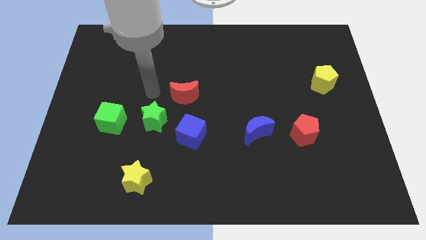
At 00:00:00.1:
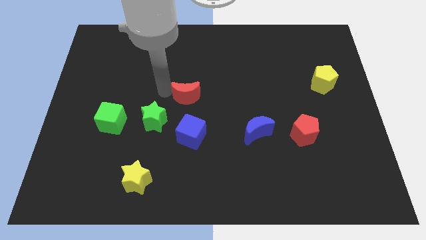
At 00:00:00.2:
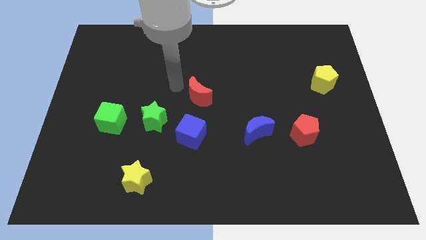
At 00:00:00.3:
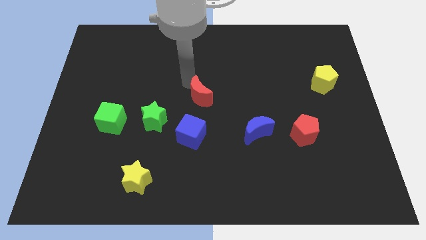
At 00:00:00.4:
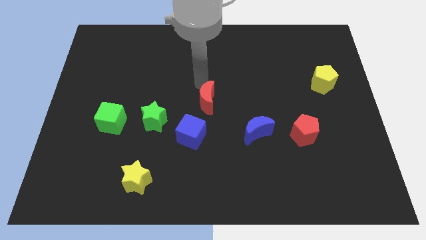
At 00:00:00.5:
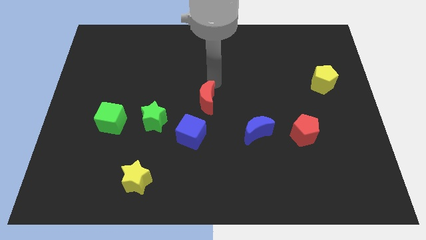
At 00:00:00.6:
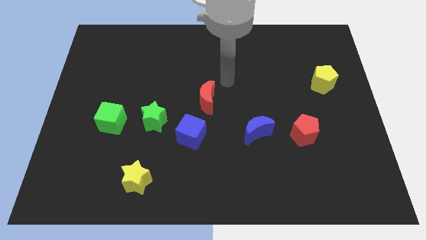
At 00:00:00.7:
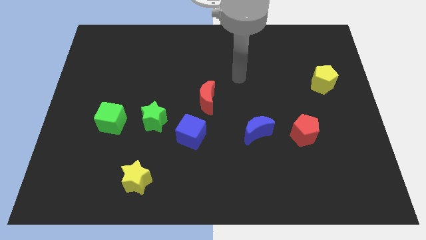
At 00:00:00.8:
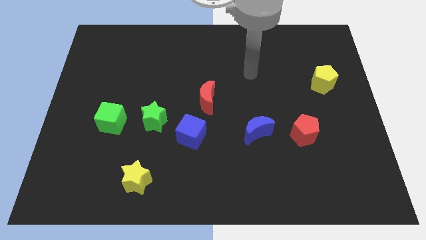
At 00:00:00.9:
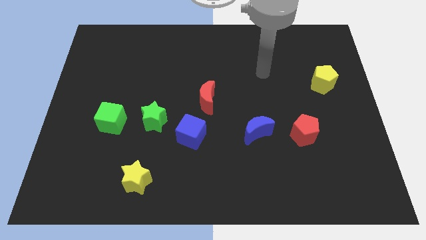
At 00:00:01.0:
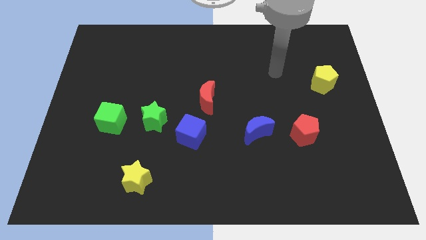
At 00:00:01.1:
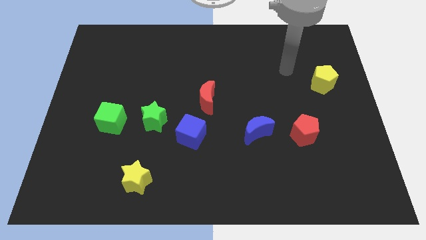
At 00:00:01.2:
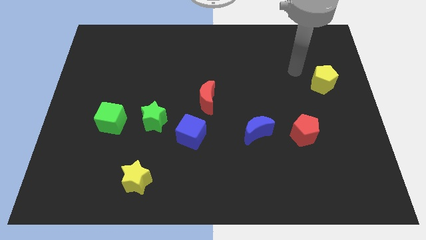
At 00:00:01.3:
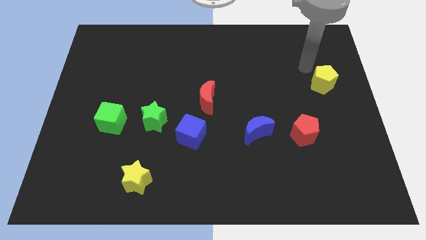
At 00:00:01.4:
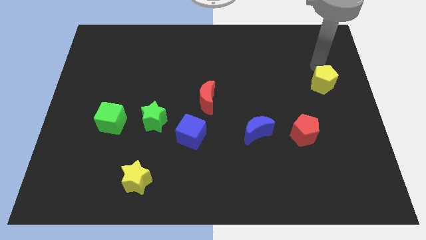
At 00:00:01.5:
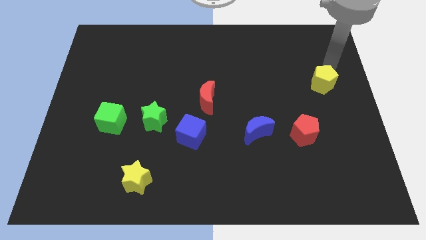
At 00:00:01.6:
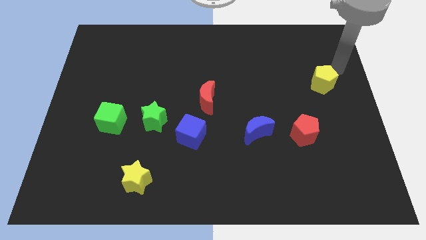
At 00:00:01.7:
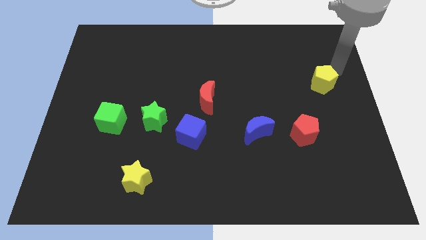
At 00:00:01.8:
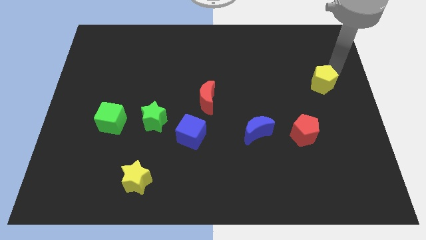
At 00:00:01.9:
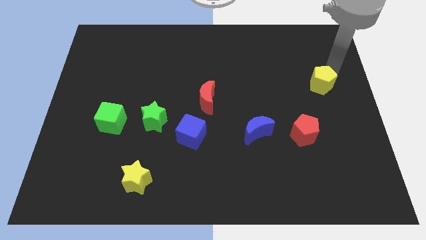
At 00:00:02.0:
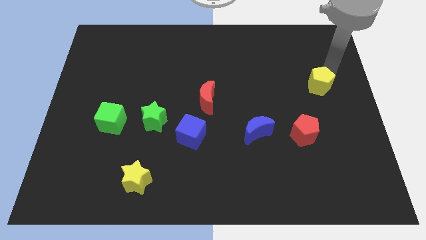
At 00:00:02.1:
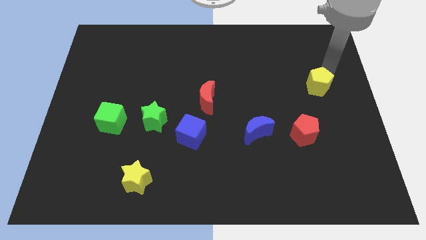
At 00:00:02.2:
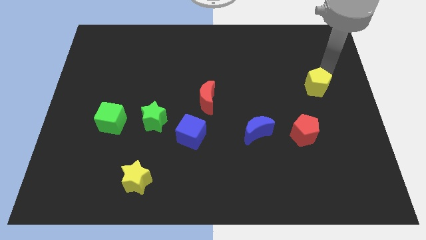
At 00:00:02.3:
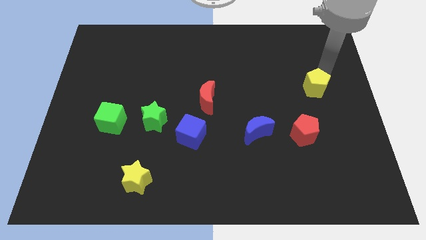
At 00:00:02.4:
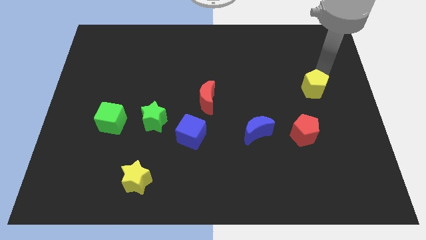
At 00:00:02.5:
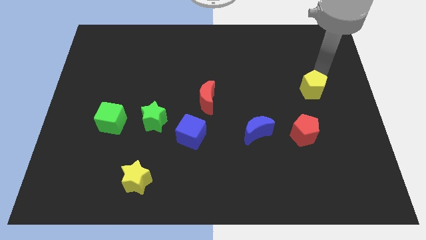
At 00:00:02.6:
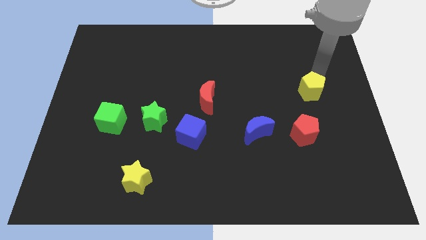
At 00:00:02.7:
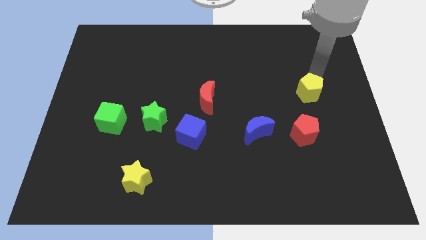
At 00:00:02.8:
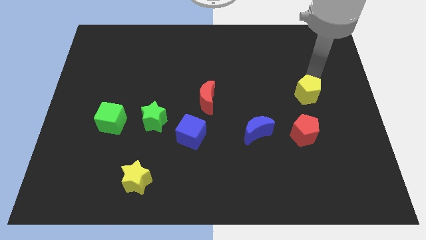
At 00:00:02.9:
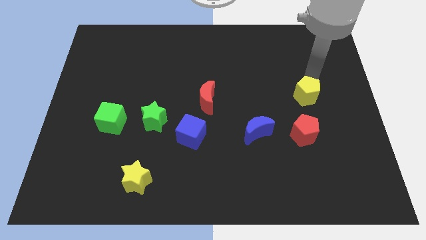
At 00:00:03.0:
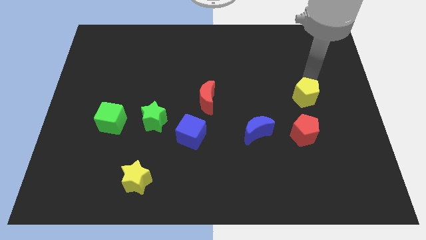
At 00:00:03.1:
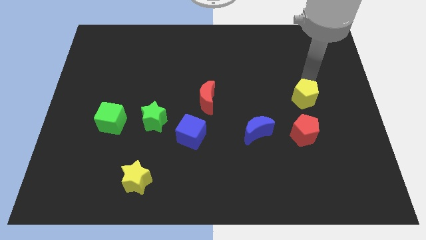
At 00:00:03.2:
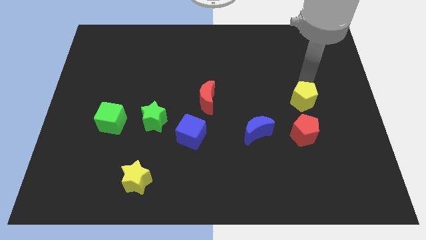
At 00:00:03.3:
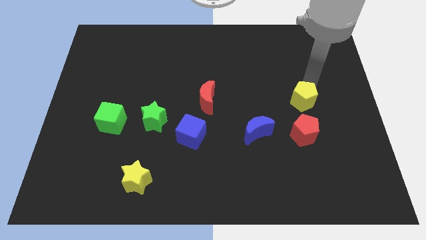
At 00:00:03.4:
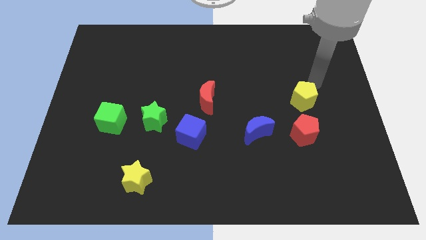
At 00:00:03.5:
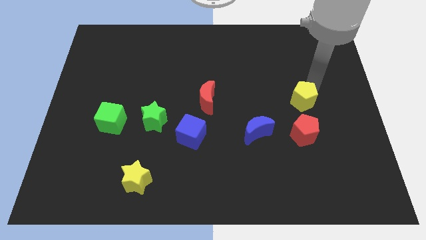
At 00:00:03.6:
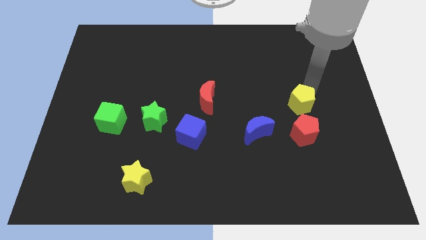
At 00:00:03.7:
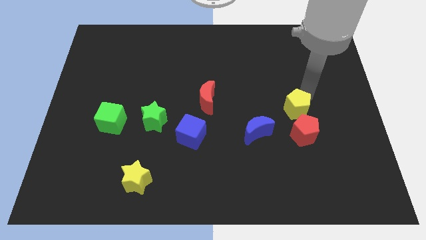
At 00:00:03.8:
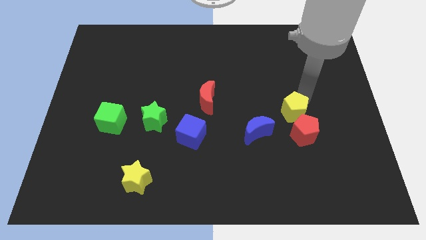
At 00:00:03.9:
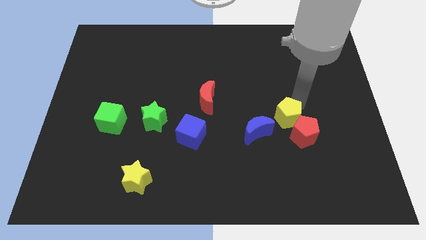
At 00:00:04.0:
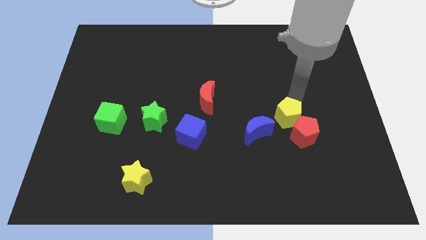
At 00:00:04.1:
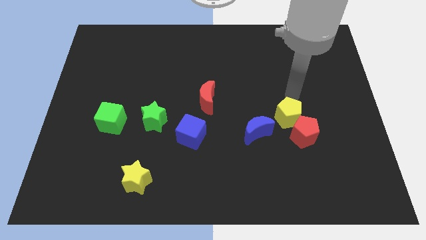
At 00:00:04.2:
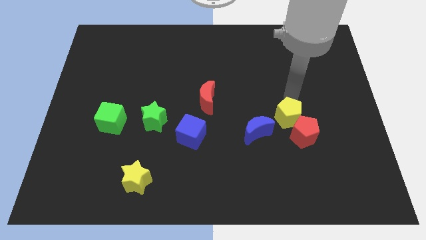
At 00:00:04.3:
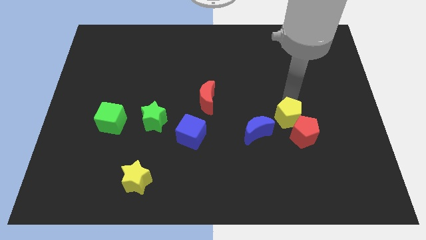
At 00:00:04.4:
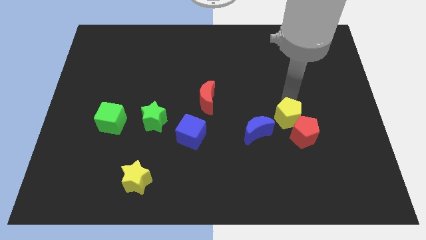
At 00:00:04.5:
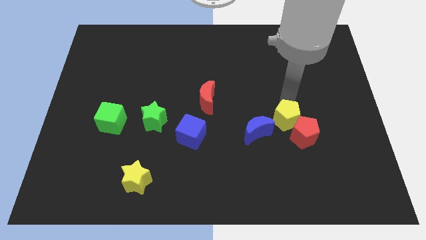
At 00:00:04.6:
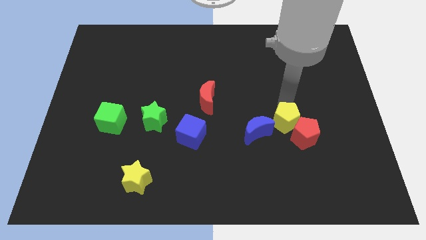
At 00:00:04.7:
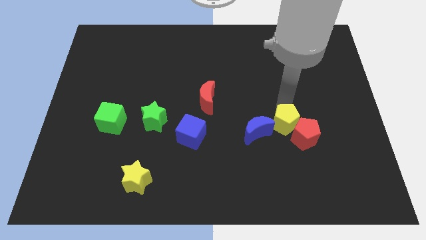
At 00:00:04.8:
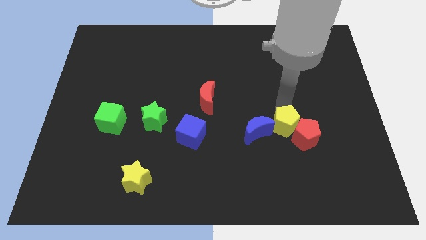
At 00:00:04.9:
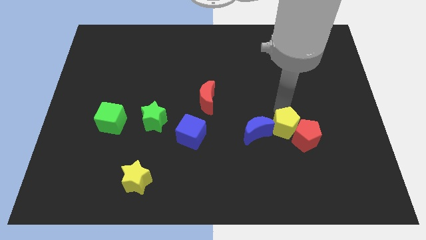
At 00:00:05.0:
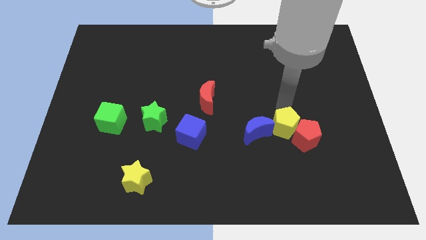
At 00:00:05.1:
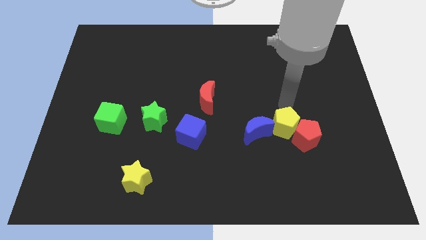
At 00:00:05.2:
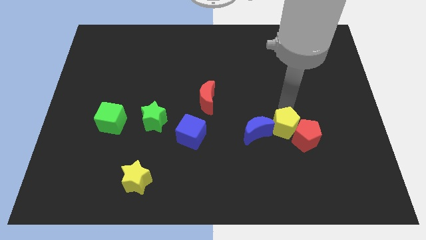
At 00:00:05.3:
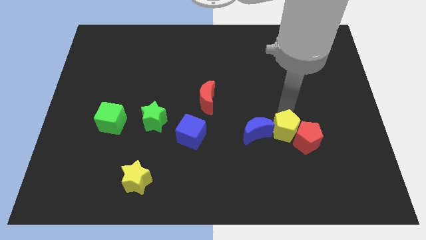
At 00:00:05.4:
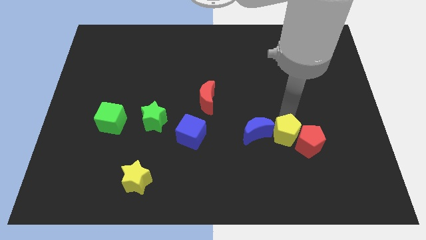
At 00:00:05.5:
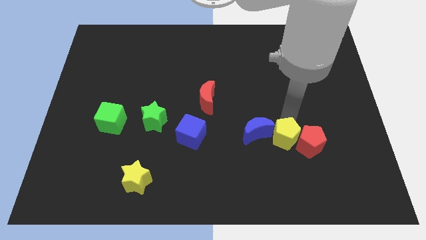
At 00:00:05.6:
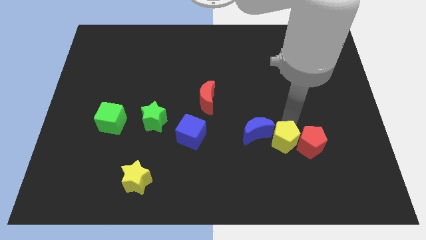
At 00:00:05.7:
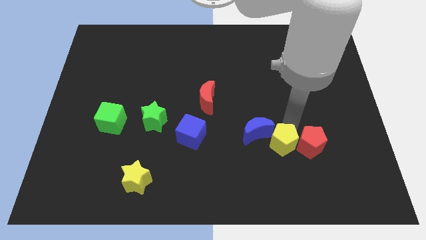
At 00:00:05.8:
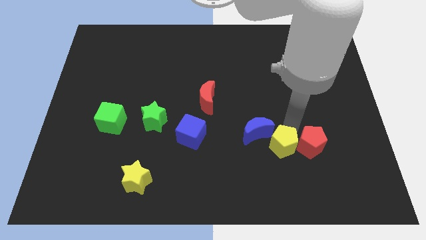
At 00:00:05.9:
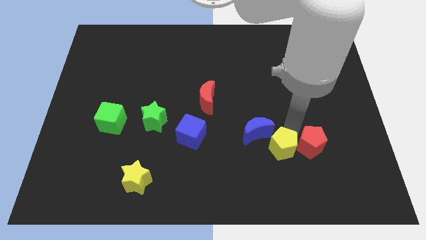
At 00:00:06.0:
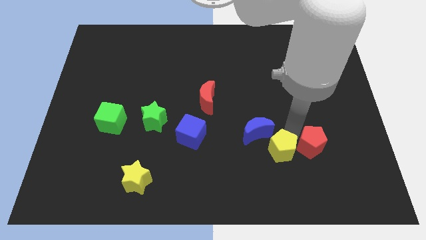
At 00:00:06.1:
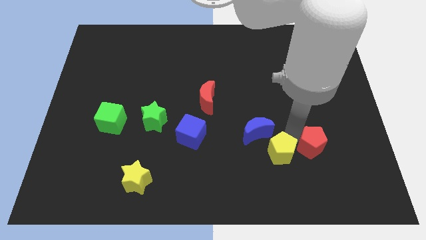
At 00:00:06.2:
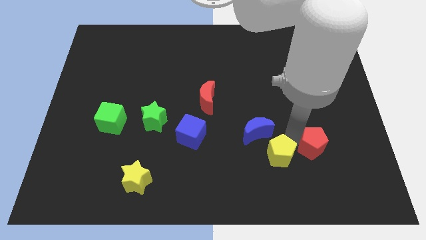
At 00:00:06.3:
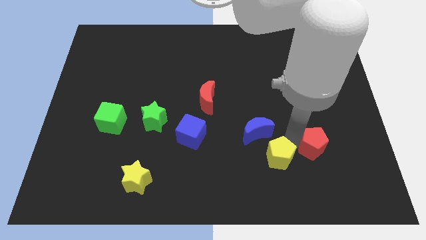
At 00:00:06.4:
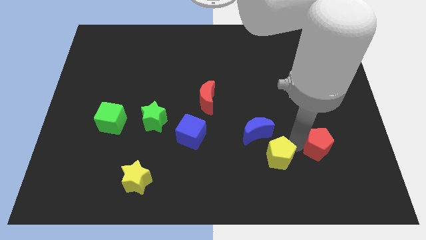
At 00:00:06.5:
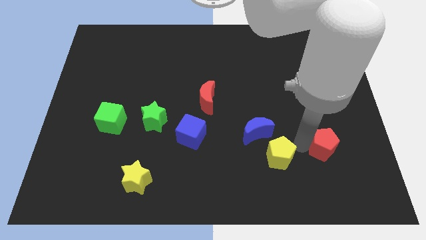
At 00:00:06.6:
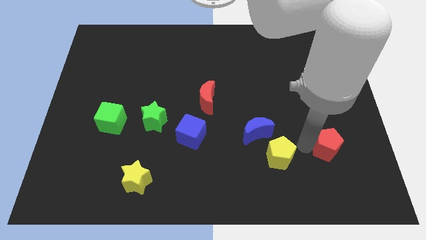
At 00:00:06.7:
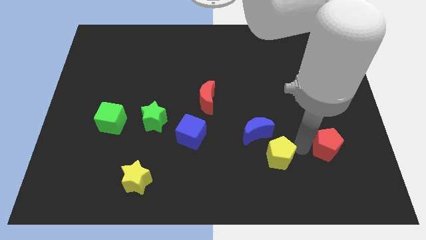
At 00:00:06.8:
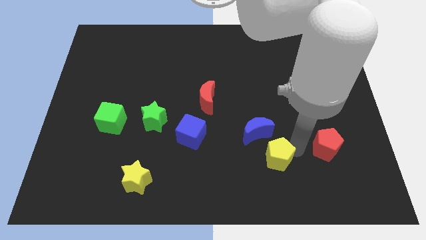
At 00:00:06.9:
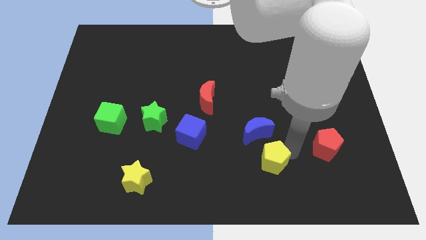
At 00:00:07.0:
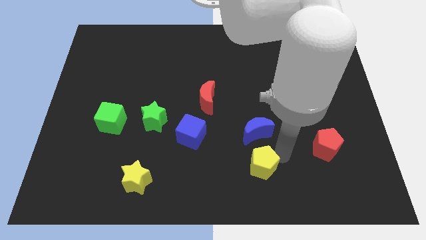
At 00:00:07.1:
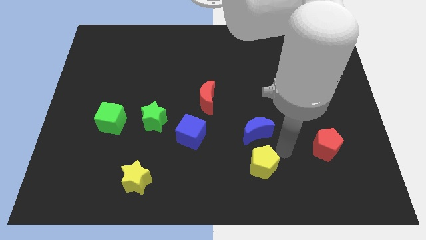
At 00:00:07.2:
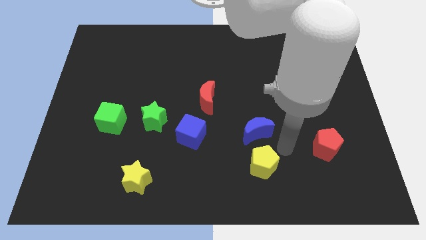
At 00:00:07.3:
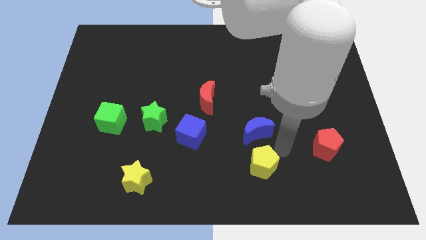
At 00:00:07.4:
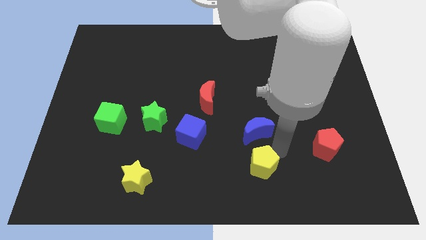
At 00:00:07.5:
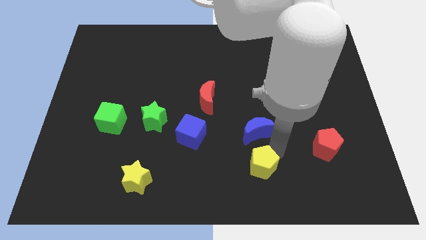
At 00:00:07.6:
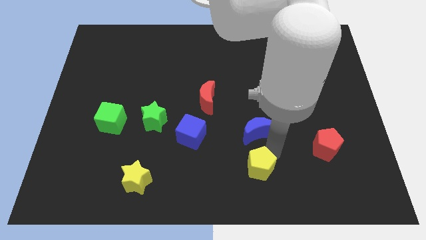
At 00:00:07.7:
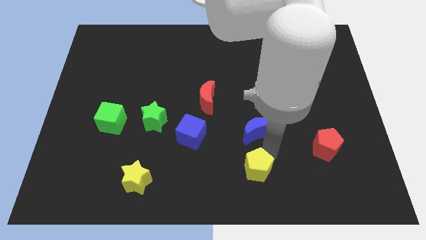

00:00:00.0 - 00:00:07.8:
slide the yellow pentagon to the bottom side
